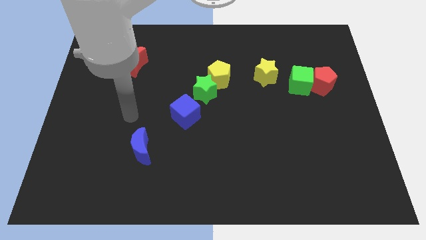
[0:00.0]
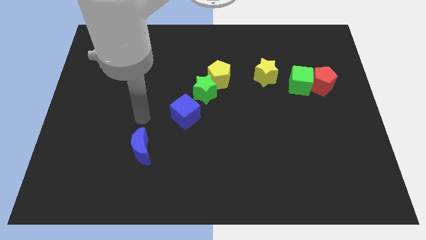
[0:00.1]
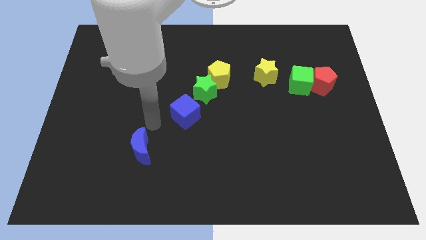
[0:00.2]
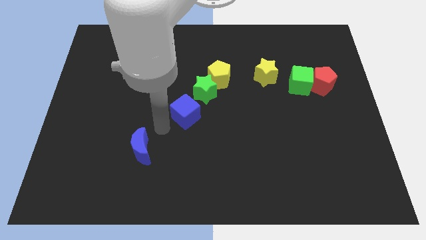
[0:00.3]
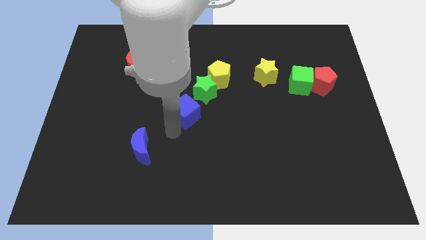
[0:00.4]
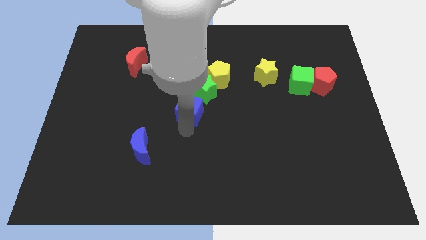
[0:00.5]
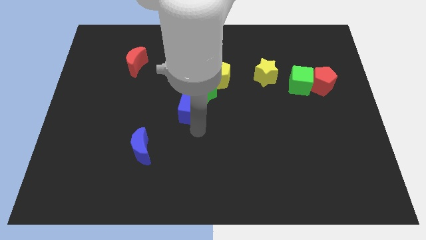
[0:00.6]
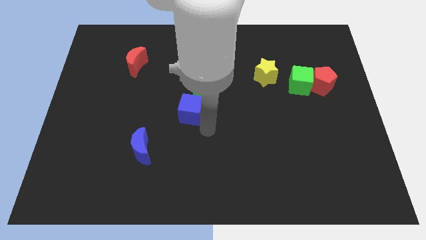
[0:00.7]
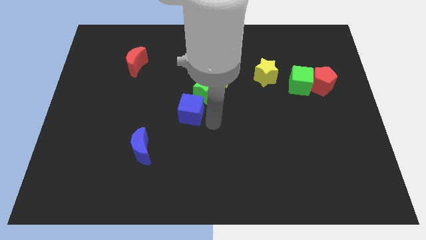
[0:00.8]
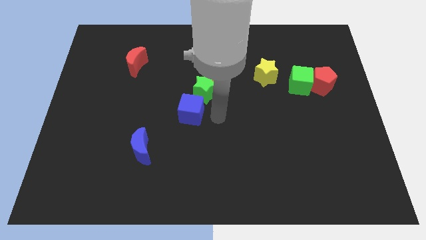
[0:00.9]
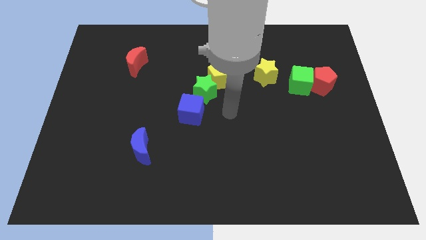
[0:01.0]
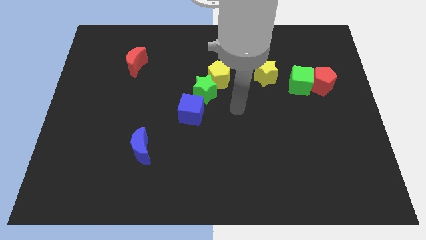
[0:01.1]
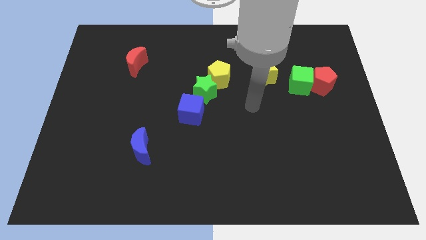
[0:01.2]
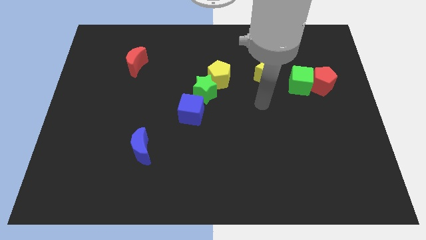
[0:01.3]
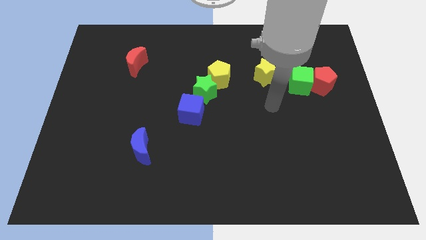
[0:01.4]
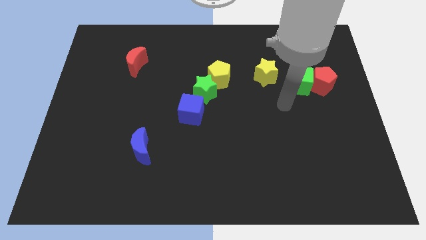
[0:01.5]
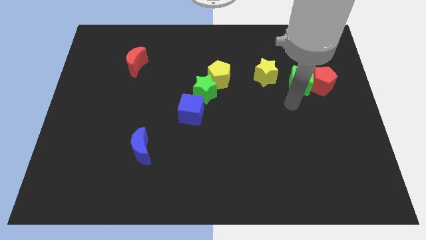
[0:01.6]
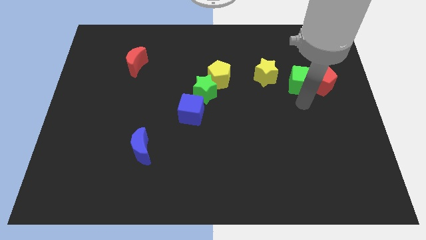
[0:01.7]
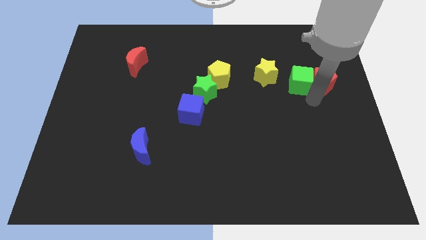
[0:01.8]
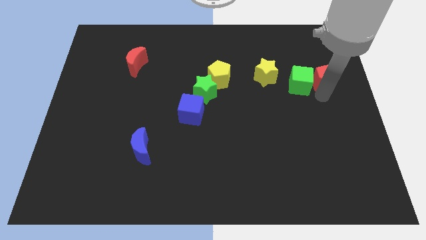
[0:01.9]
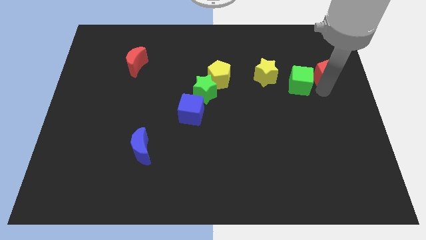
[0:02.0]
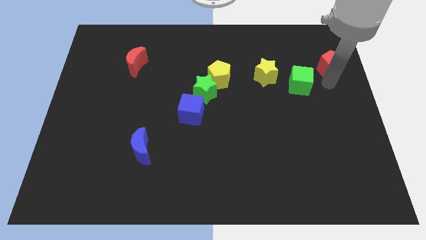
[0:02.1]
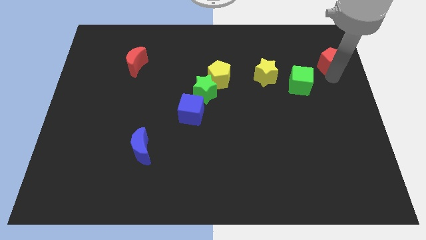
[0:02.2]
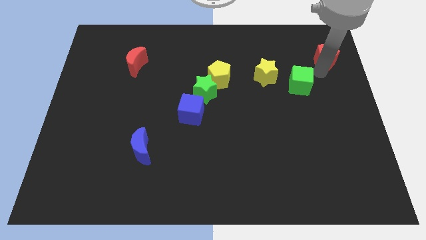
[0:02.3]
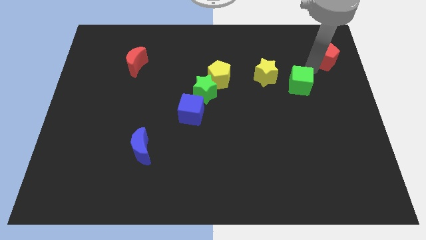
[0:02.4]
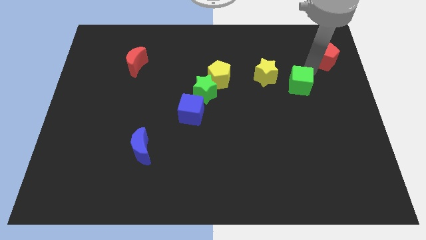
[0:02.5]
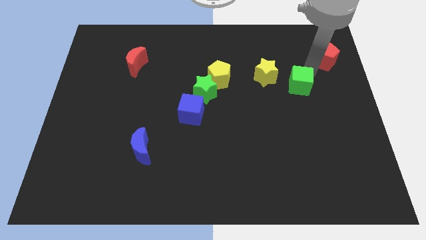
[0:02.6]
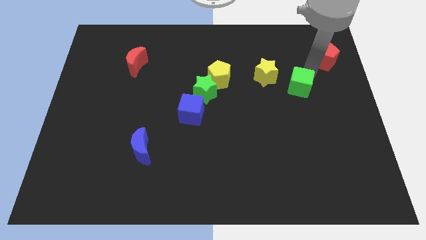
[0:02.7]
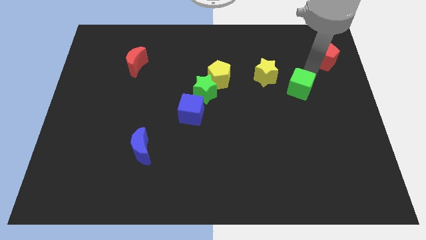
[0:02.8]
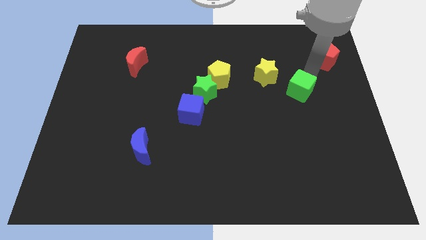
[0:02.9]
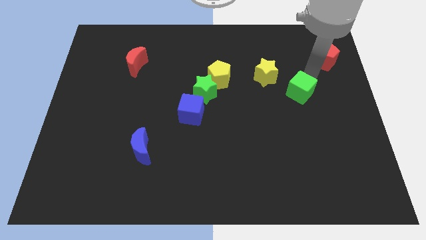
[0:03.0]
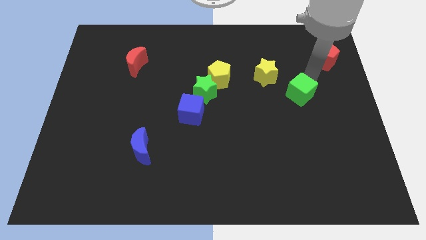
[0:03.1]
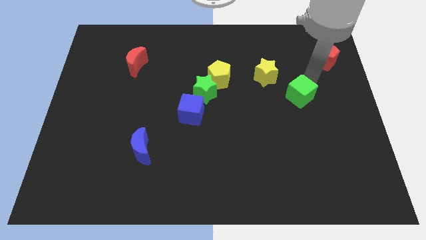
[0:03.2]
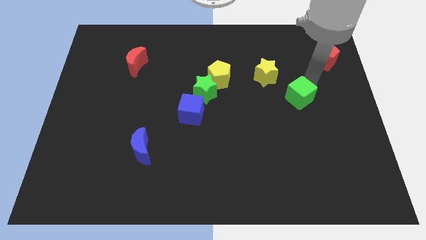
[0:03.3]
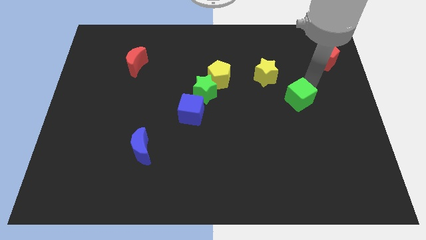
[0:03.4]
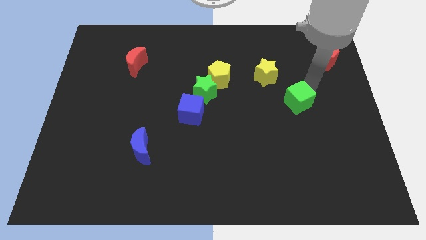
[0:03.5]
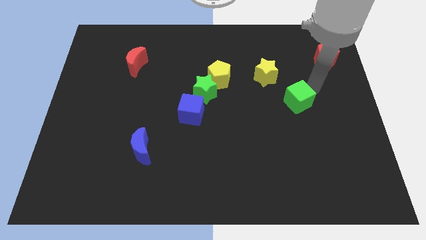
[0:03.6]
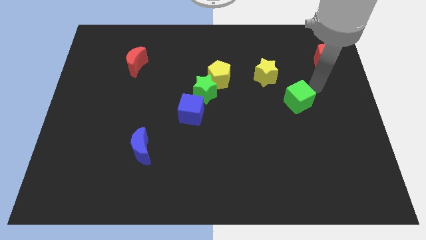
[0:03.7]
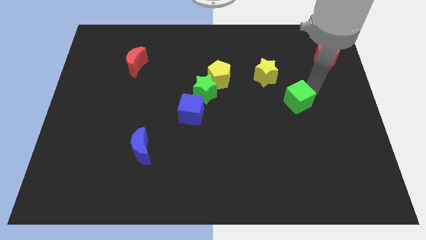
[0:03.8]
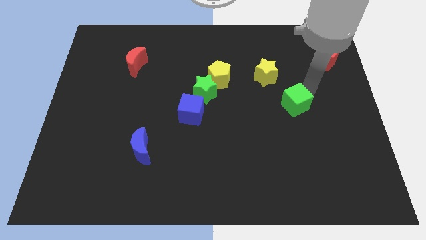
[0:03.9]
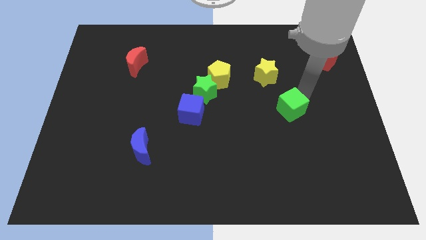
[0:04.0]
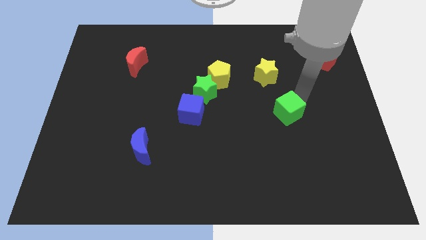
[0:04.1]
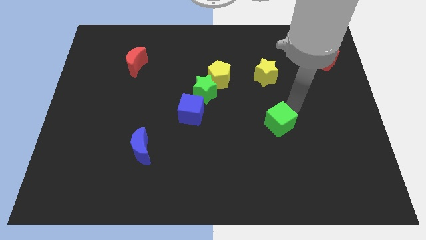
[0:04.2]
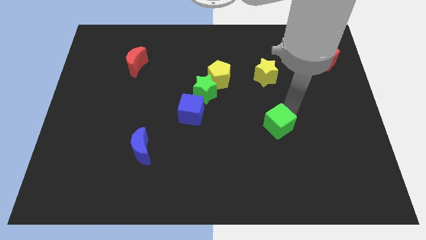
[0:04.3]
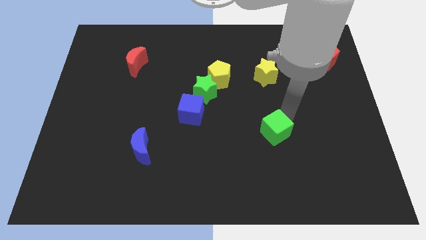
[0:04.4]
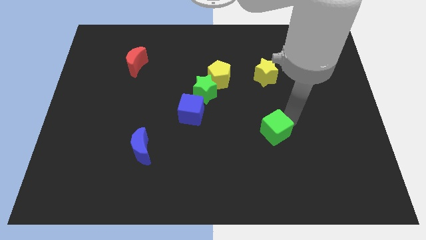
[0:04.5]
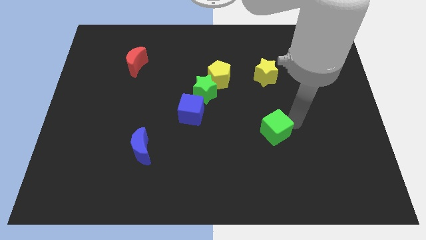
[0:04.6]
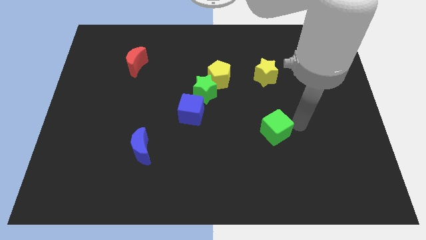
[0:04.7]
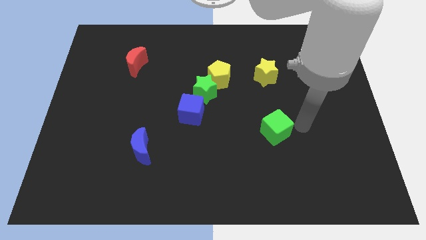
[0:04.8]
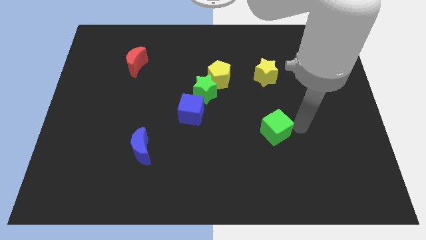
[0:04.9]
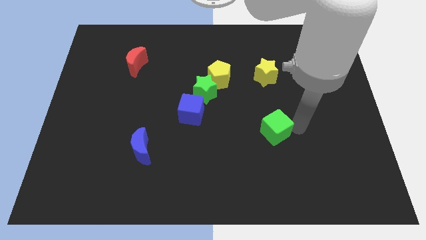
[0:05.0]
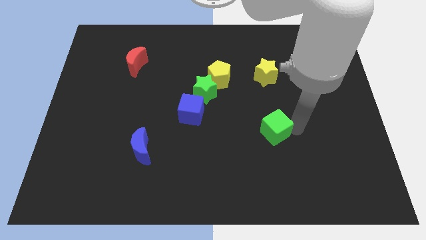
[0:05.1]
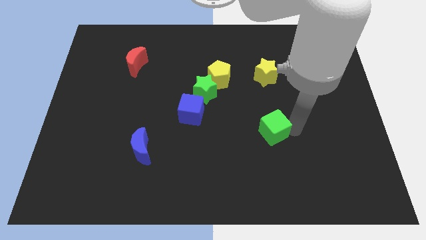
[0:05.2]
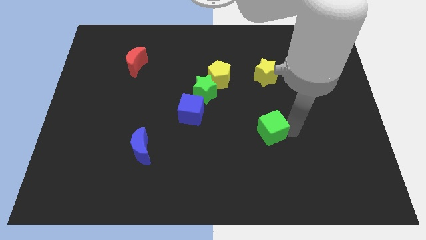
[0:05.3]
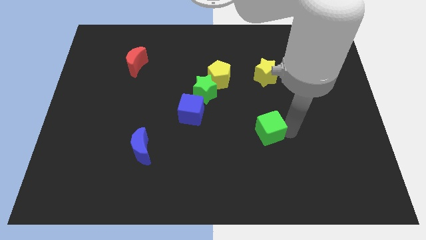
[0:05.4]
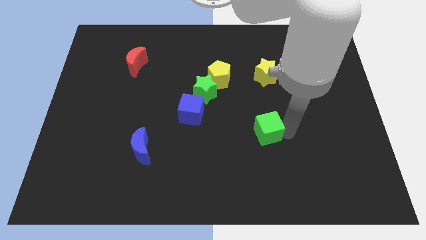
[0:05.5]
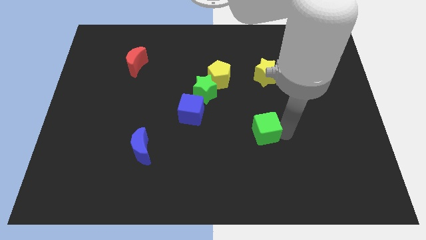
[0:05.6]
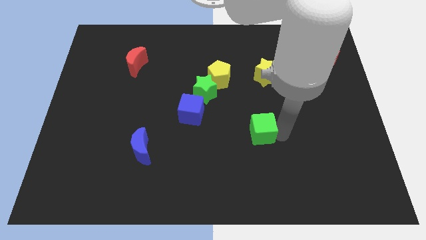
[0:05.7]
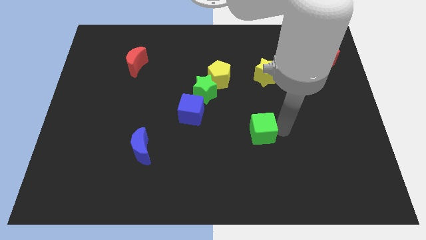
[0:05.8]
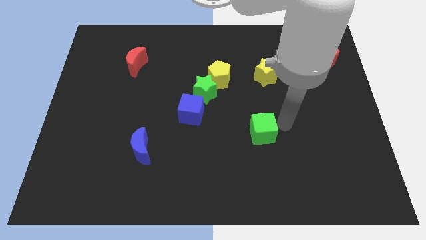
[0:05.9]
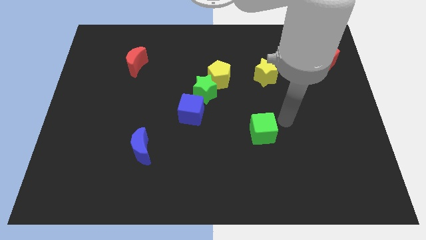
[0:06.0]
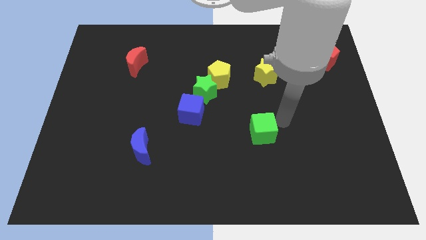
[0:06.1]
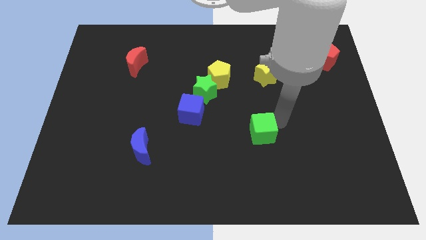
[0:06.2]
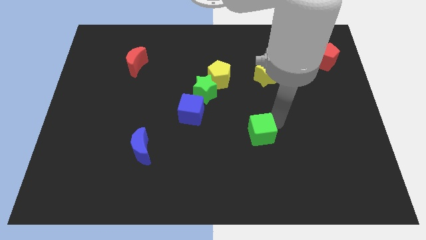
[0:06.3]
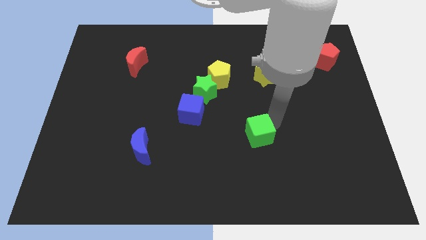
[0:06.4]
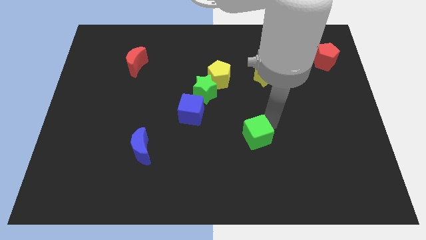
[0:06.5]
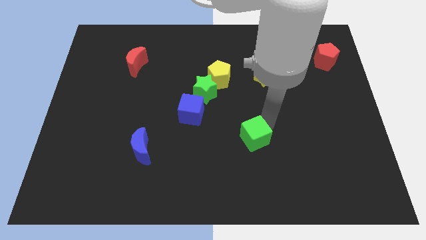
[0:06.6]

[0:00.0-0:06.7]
slide the green cube downwards and then to the left

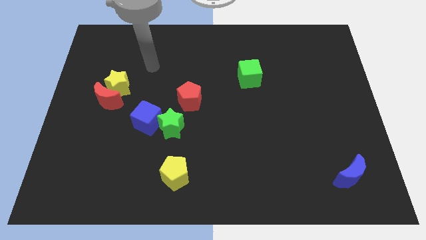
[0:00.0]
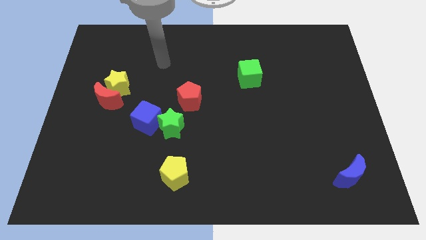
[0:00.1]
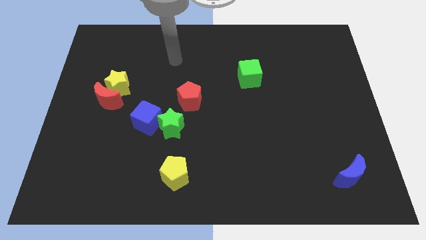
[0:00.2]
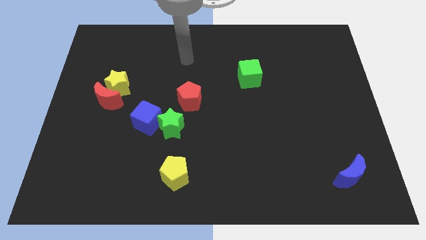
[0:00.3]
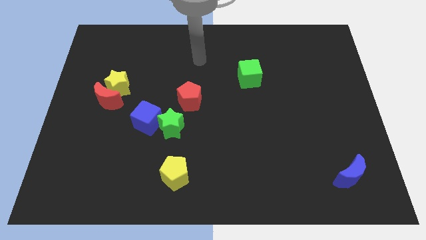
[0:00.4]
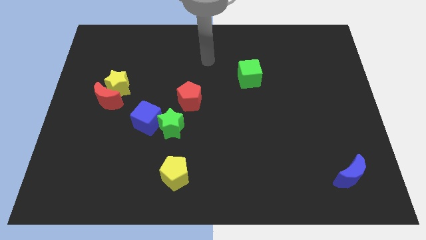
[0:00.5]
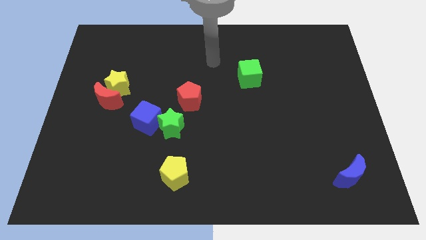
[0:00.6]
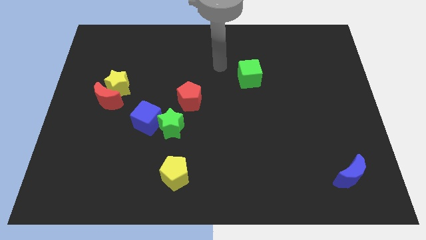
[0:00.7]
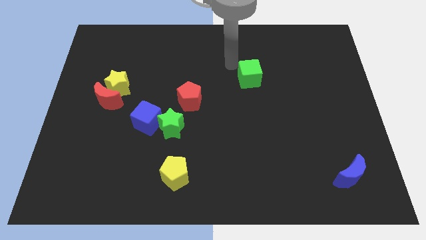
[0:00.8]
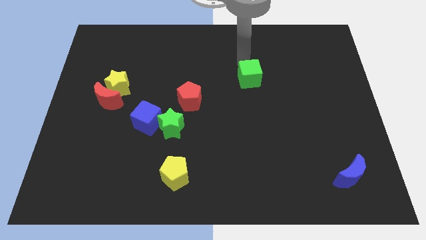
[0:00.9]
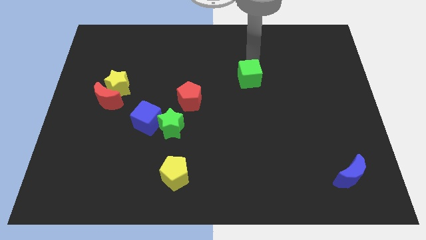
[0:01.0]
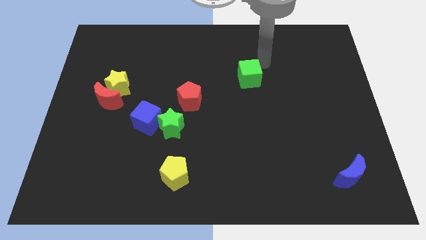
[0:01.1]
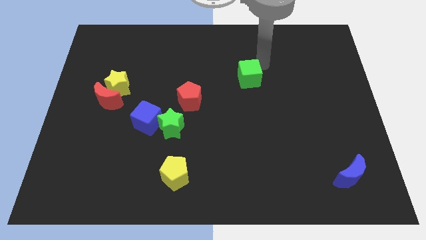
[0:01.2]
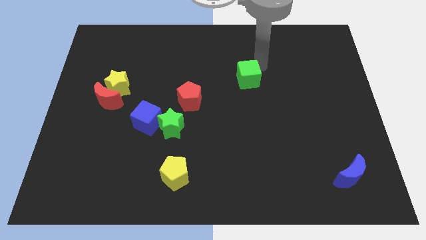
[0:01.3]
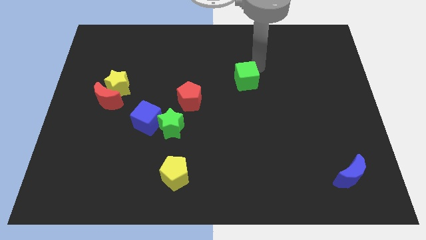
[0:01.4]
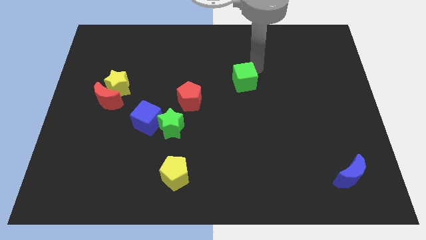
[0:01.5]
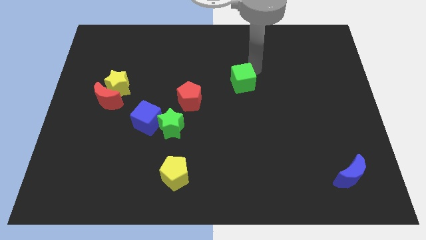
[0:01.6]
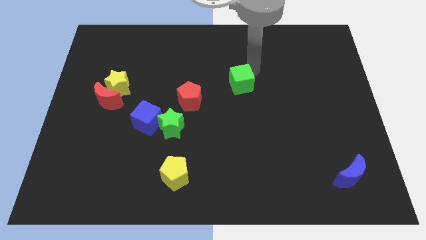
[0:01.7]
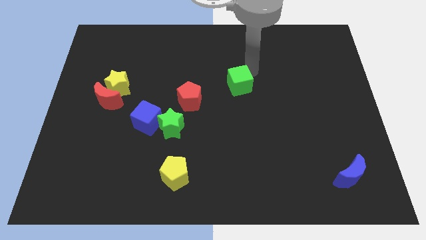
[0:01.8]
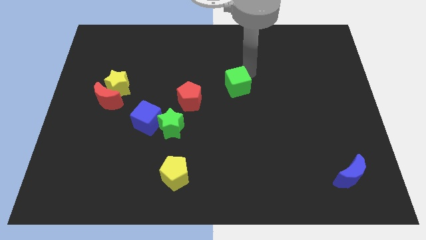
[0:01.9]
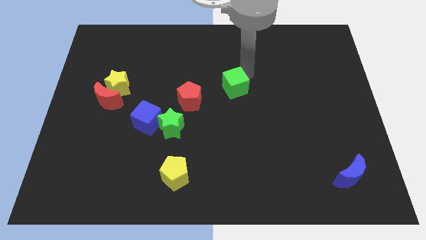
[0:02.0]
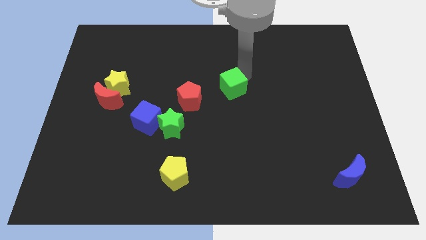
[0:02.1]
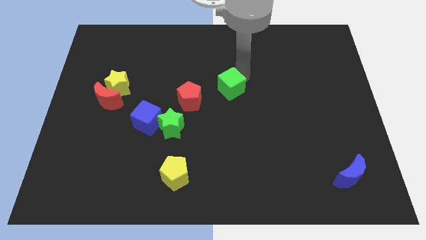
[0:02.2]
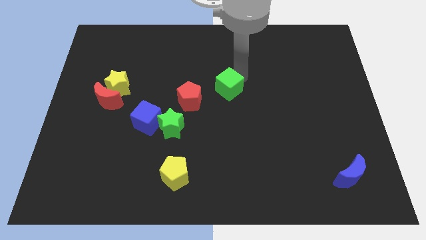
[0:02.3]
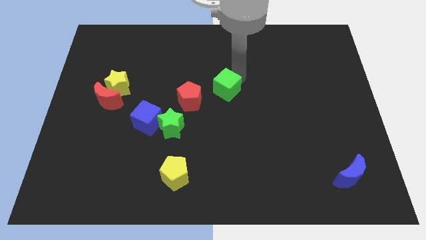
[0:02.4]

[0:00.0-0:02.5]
move the green cube a little bit down and left diagonally
